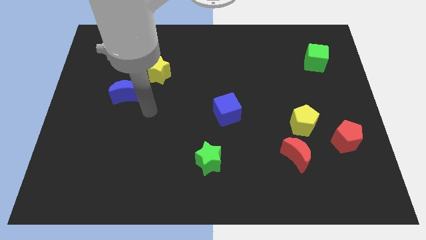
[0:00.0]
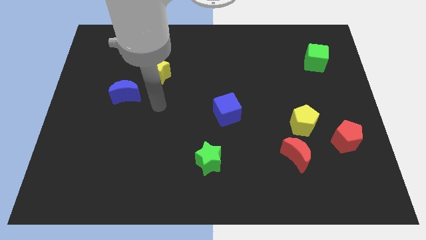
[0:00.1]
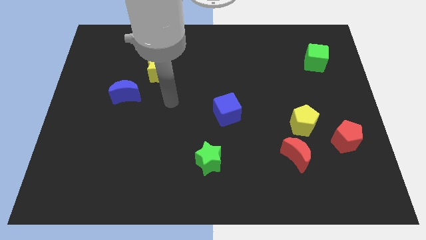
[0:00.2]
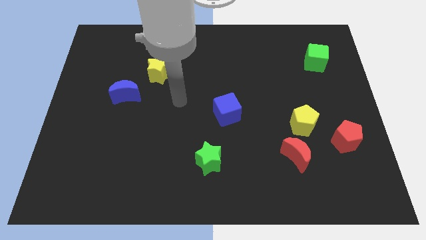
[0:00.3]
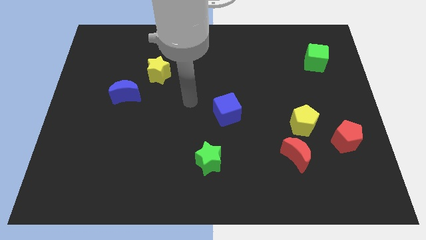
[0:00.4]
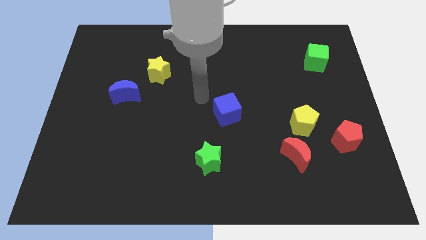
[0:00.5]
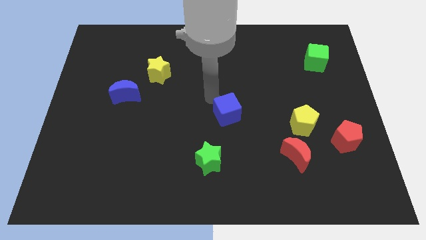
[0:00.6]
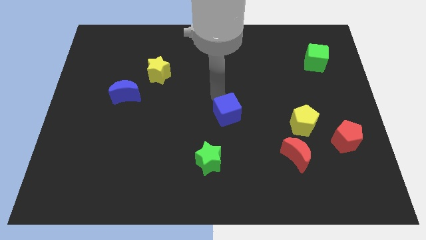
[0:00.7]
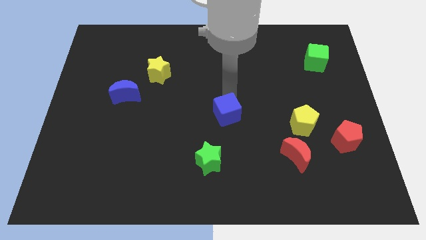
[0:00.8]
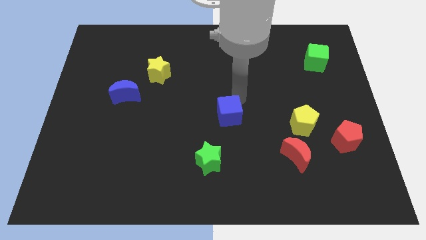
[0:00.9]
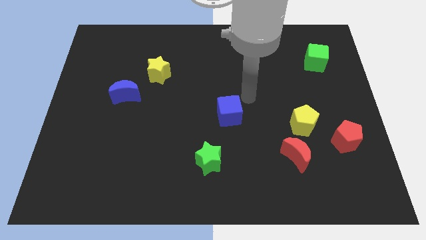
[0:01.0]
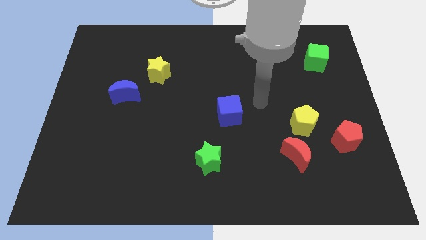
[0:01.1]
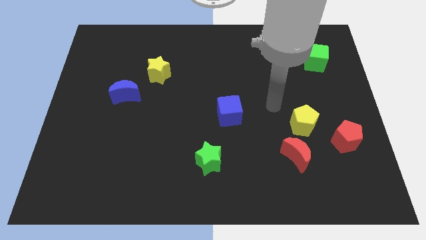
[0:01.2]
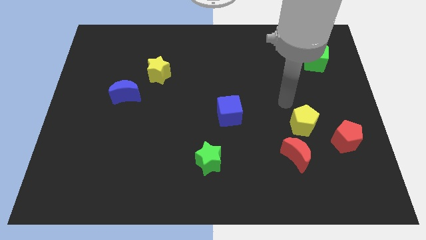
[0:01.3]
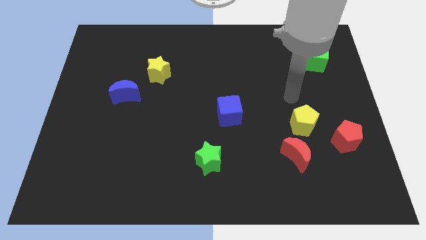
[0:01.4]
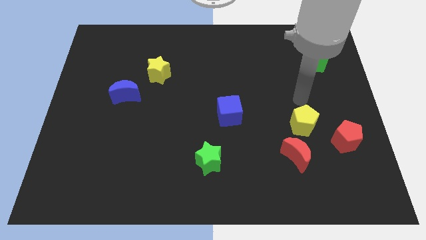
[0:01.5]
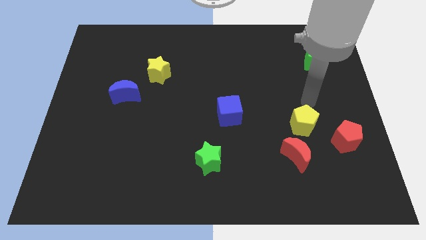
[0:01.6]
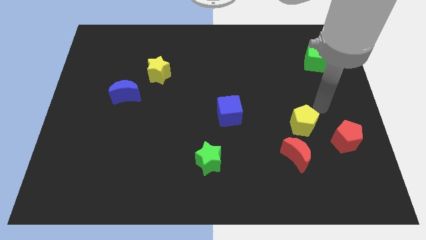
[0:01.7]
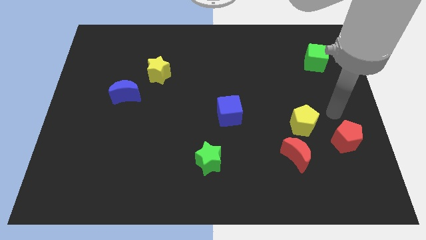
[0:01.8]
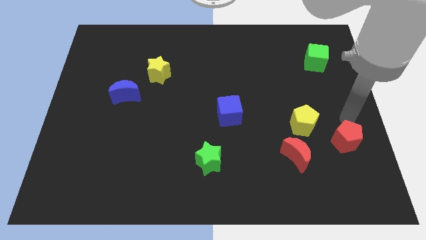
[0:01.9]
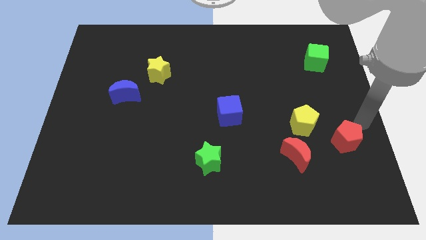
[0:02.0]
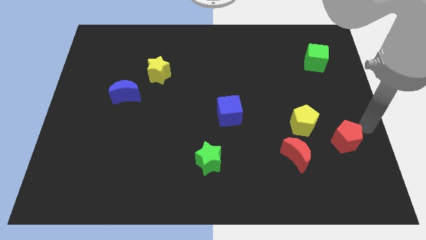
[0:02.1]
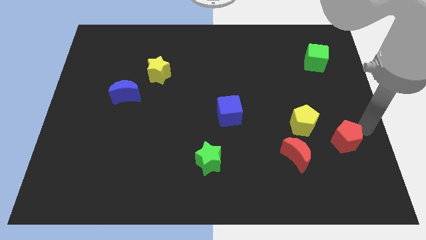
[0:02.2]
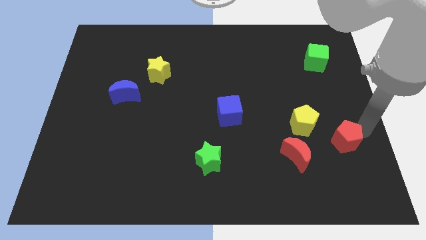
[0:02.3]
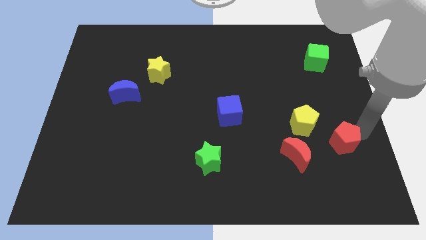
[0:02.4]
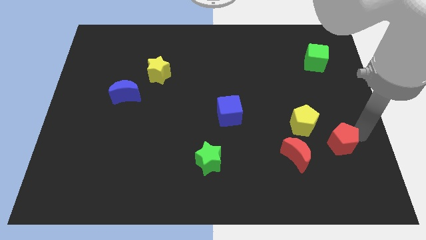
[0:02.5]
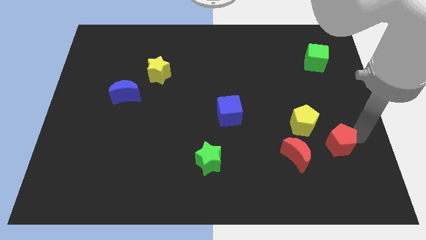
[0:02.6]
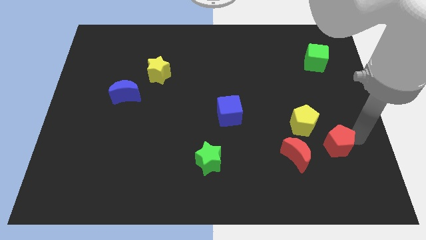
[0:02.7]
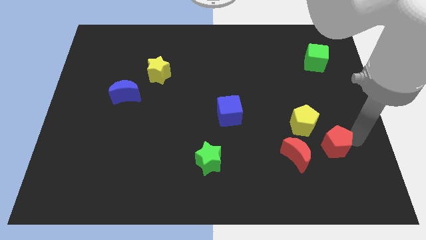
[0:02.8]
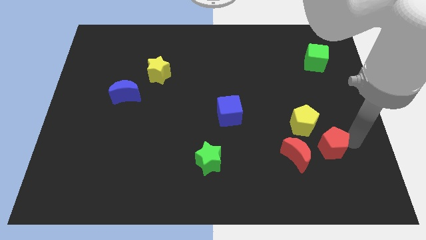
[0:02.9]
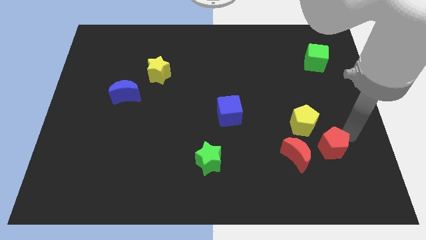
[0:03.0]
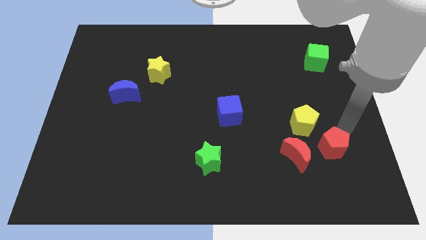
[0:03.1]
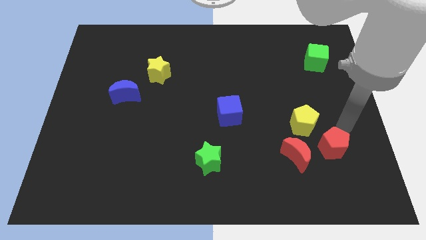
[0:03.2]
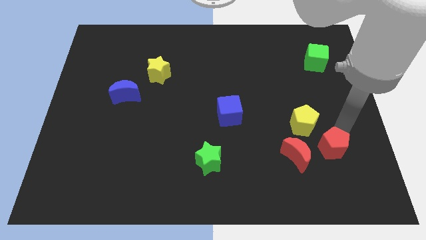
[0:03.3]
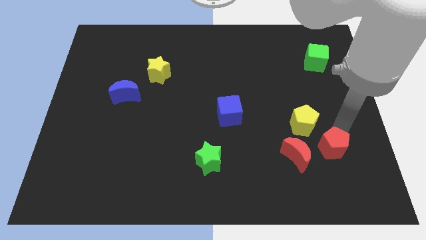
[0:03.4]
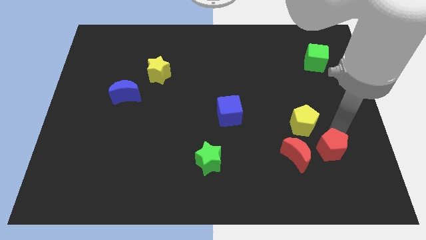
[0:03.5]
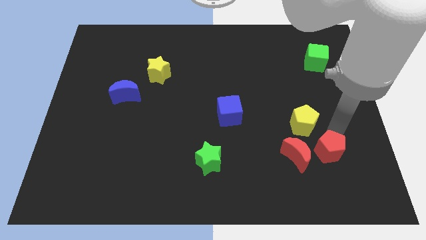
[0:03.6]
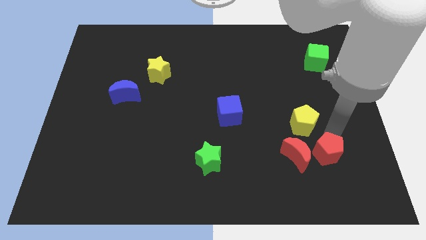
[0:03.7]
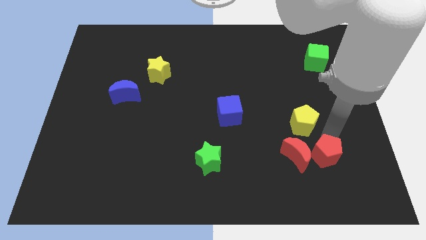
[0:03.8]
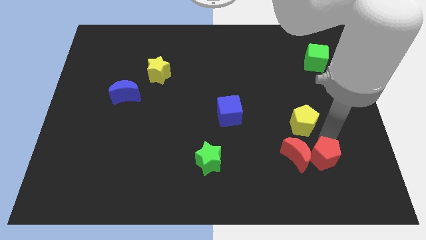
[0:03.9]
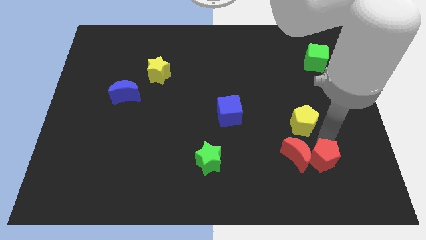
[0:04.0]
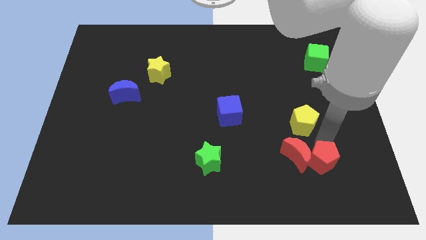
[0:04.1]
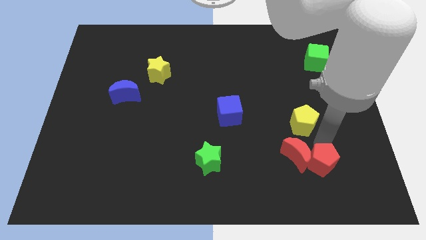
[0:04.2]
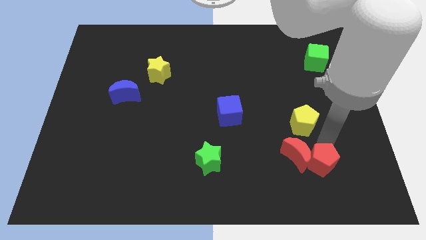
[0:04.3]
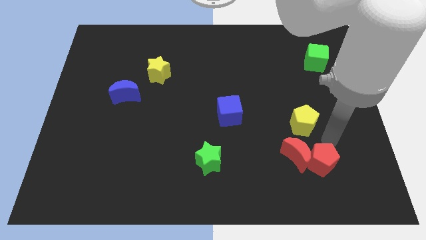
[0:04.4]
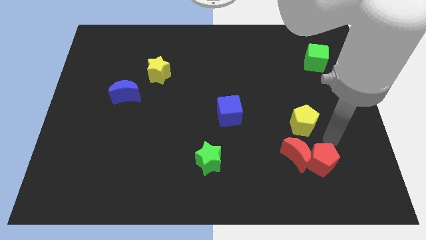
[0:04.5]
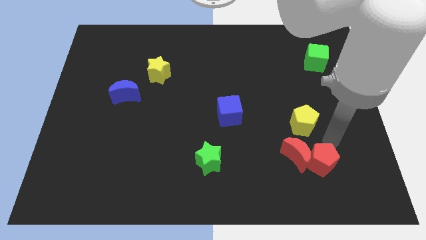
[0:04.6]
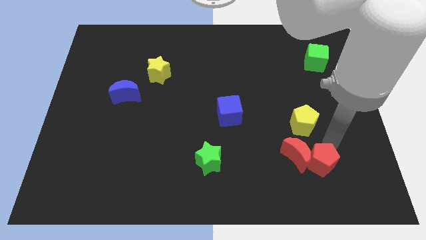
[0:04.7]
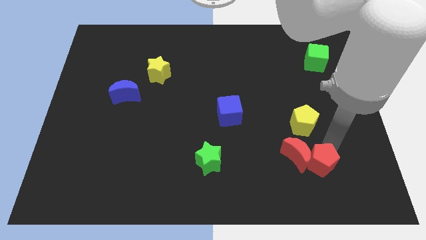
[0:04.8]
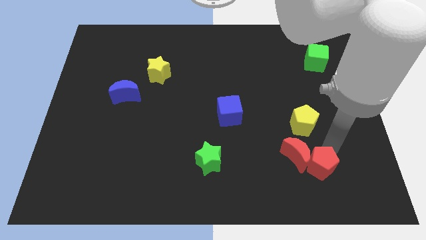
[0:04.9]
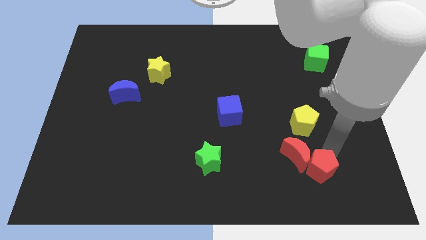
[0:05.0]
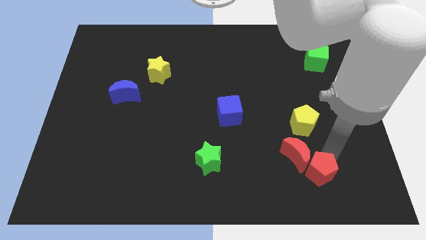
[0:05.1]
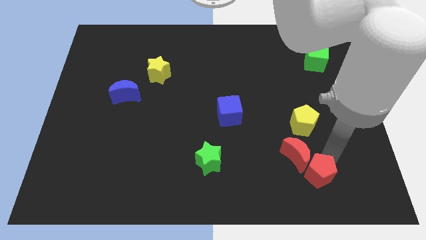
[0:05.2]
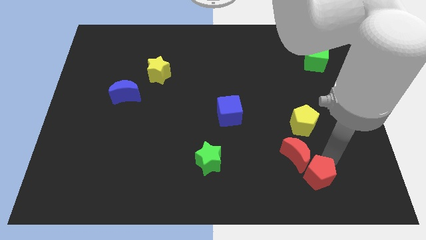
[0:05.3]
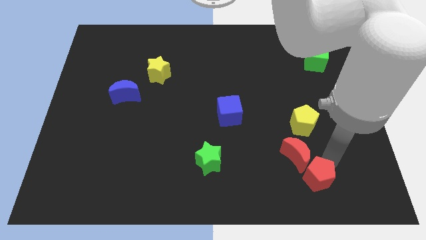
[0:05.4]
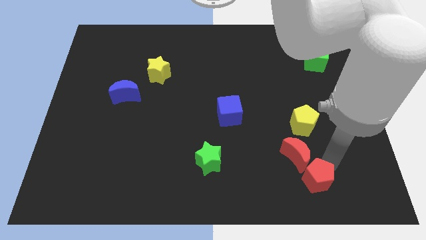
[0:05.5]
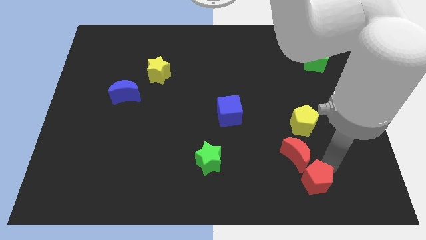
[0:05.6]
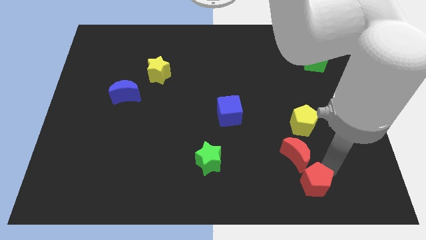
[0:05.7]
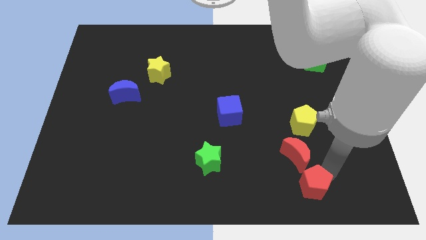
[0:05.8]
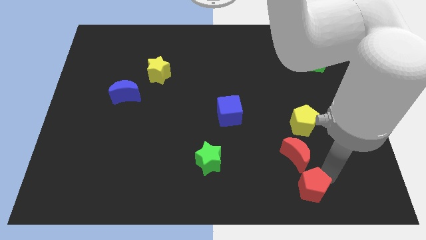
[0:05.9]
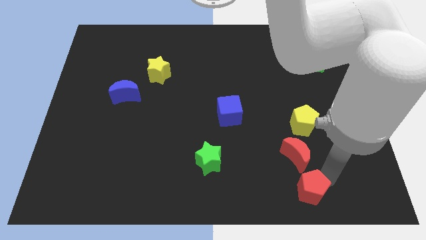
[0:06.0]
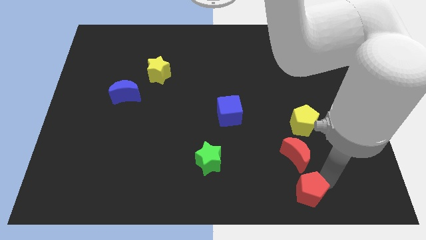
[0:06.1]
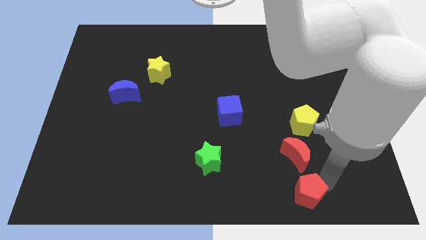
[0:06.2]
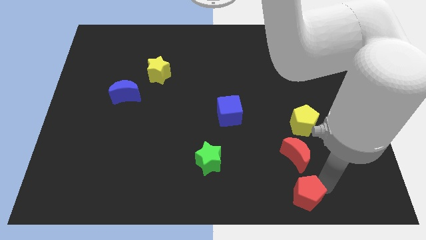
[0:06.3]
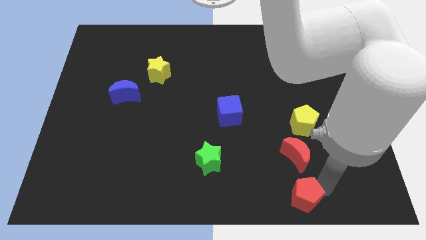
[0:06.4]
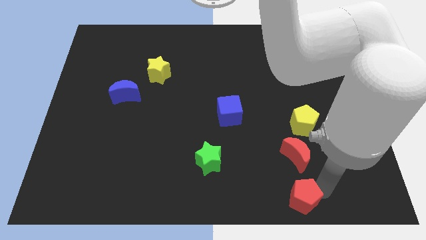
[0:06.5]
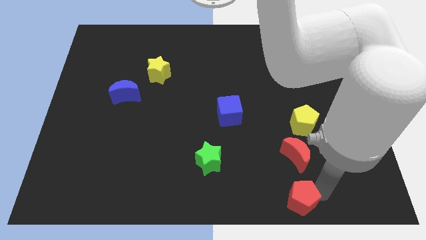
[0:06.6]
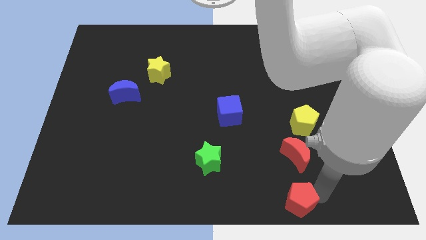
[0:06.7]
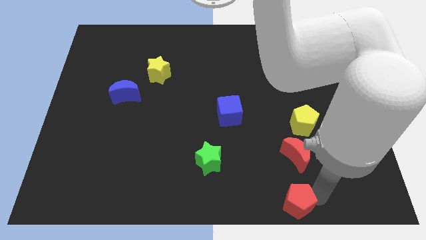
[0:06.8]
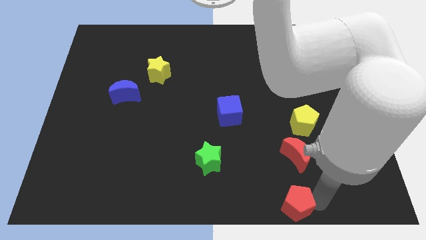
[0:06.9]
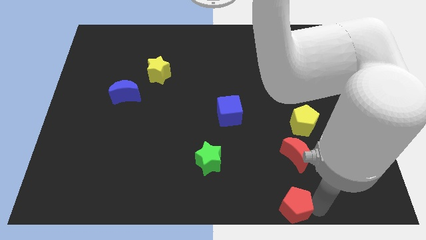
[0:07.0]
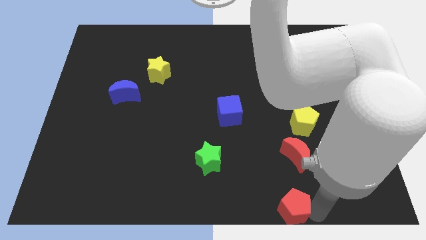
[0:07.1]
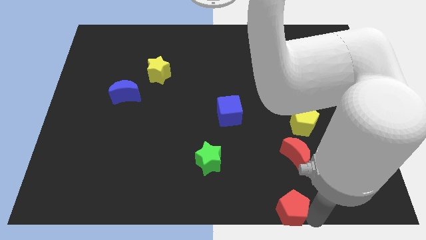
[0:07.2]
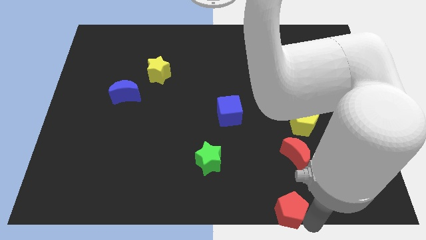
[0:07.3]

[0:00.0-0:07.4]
move the red pentagon to the bottom
